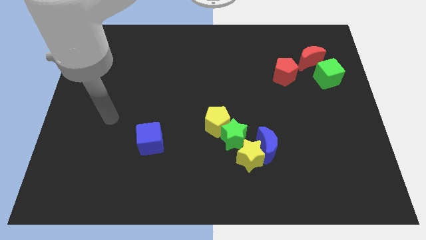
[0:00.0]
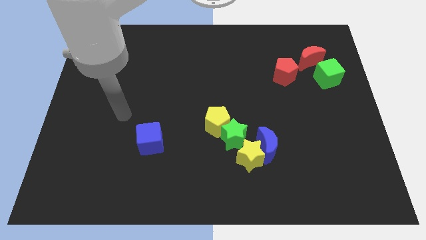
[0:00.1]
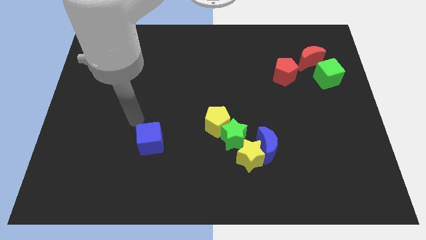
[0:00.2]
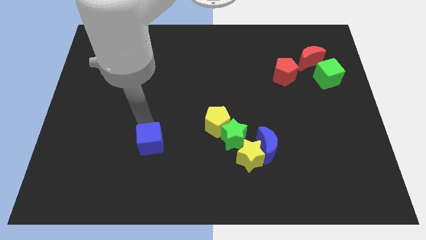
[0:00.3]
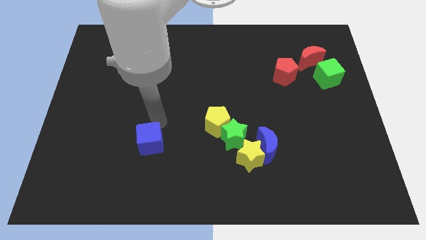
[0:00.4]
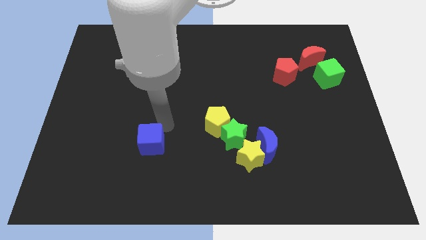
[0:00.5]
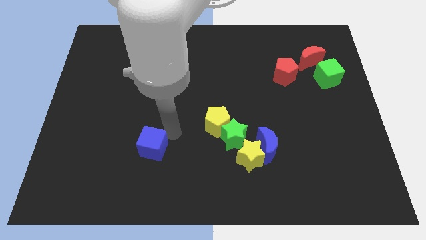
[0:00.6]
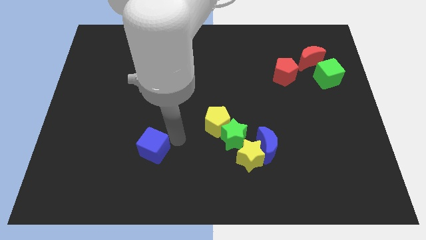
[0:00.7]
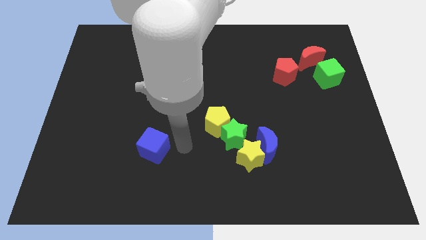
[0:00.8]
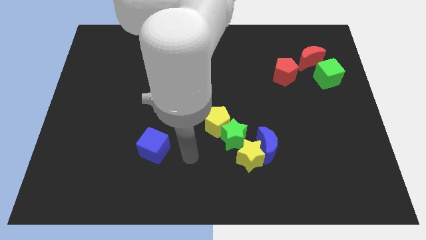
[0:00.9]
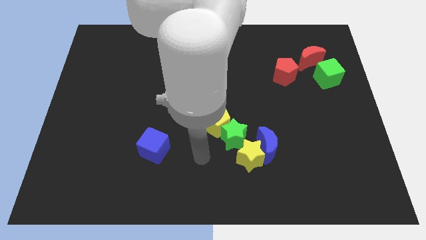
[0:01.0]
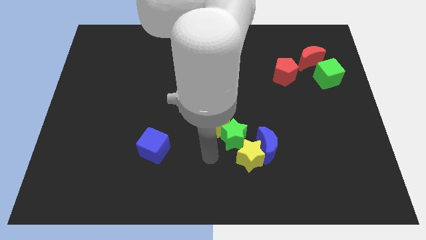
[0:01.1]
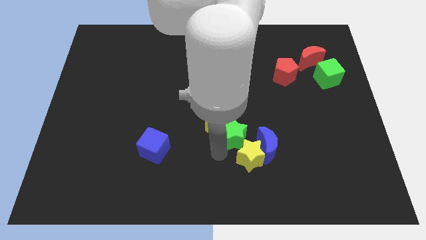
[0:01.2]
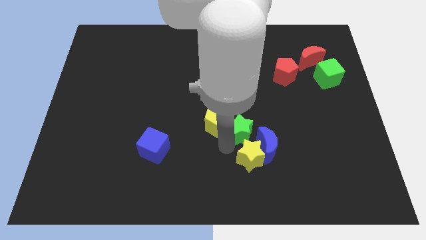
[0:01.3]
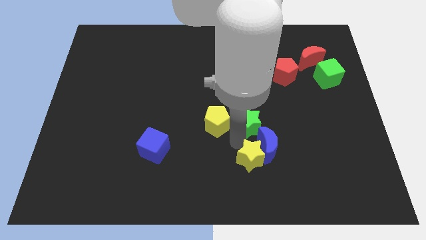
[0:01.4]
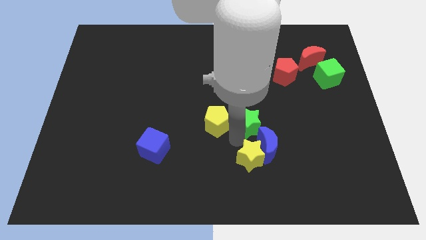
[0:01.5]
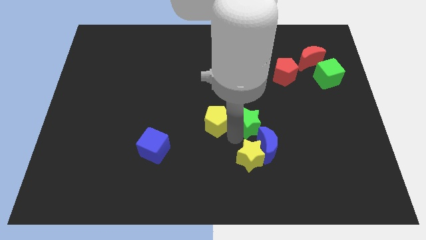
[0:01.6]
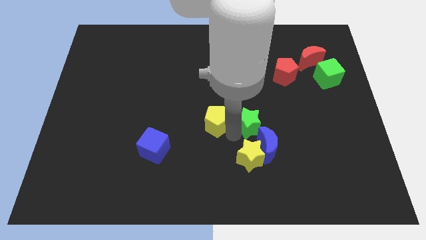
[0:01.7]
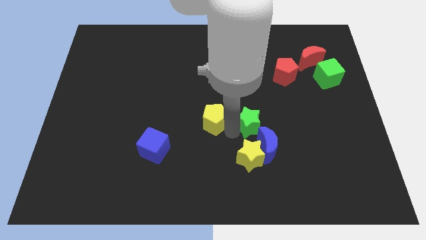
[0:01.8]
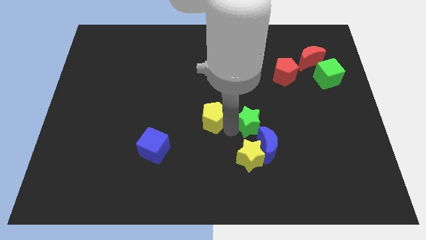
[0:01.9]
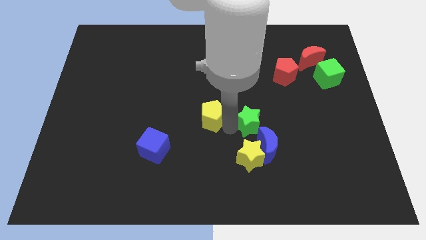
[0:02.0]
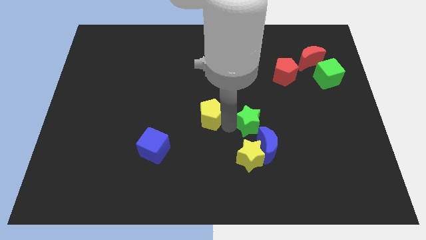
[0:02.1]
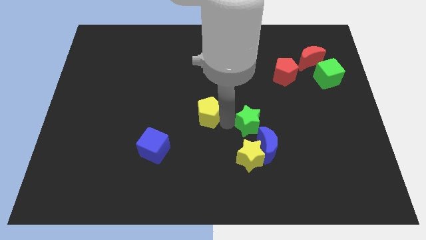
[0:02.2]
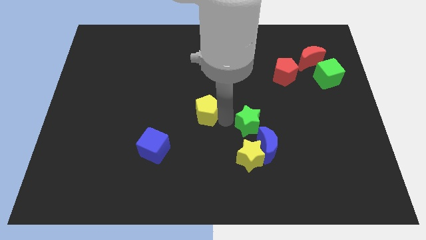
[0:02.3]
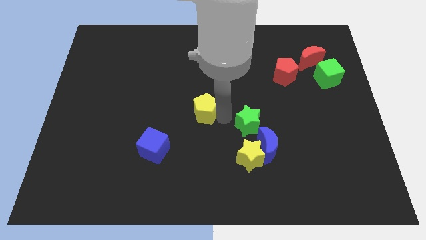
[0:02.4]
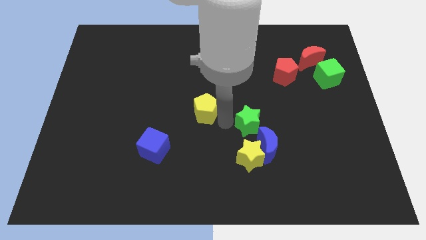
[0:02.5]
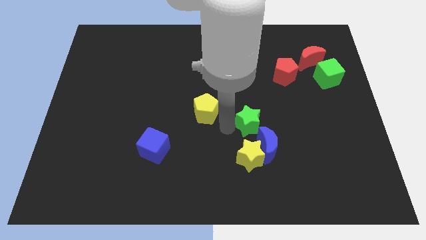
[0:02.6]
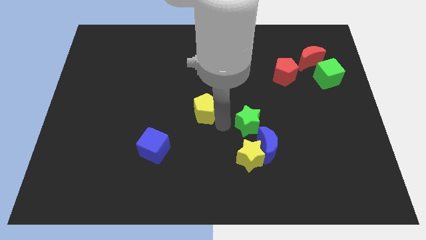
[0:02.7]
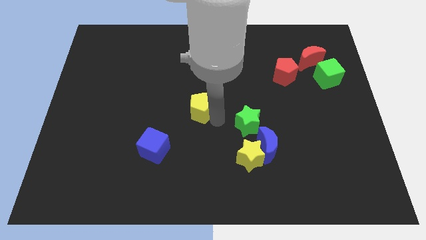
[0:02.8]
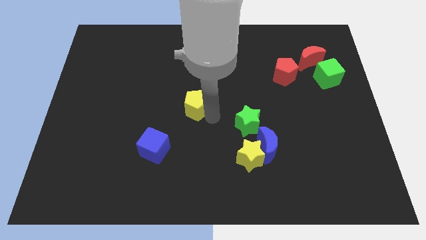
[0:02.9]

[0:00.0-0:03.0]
move the yellow pentagon a bit upwards and then to the left

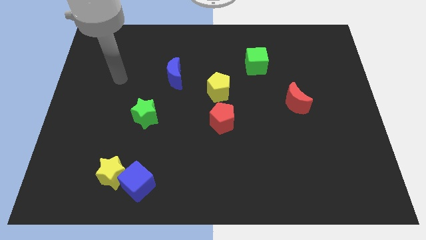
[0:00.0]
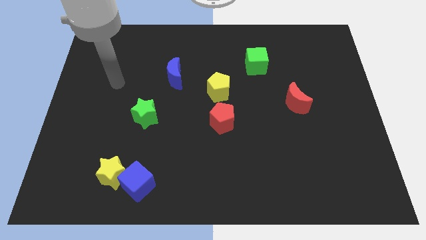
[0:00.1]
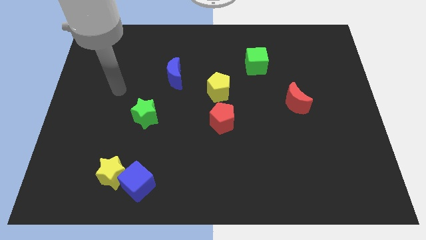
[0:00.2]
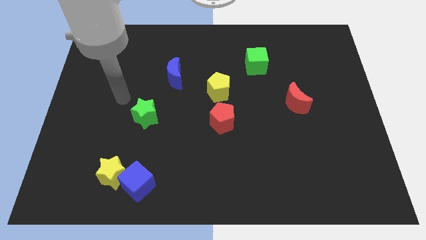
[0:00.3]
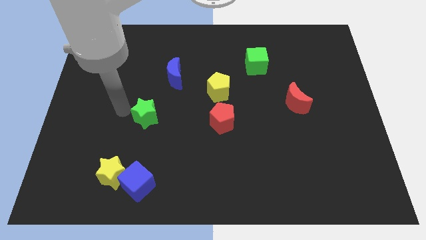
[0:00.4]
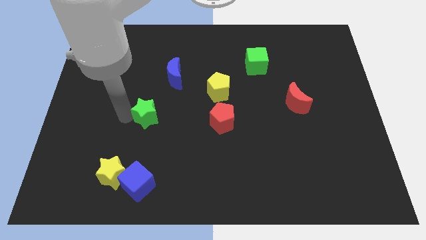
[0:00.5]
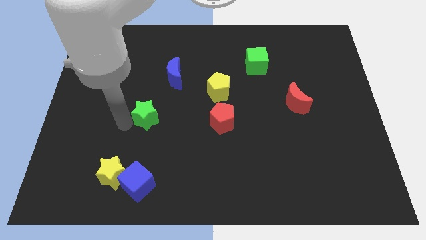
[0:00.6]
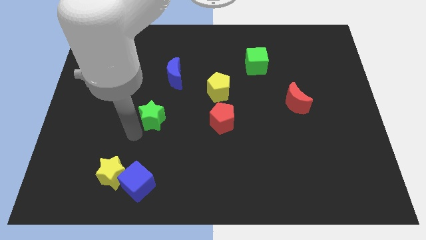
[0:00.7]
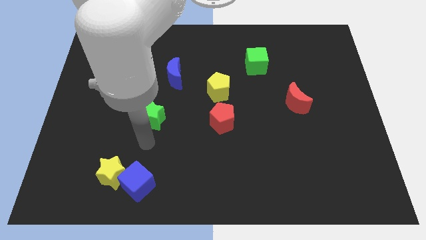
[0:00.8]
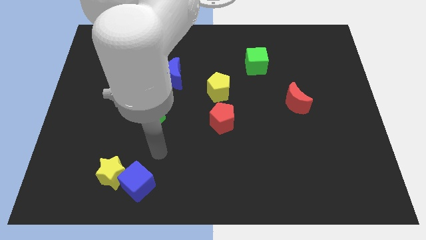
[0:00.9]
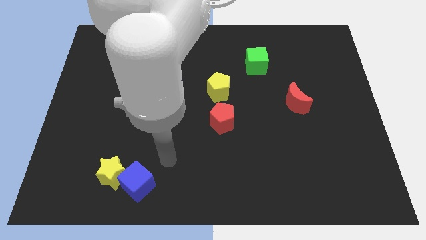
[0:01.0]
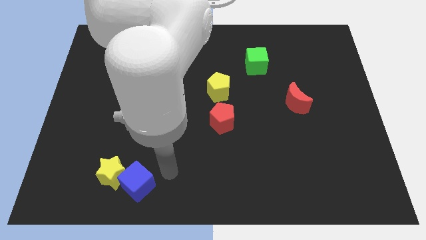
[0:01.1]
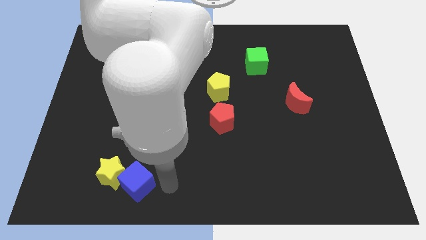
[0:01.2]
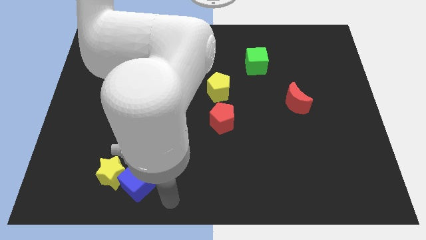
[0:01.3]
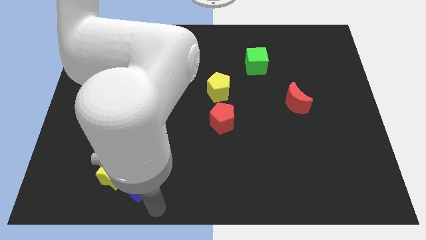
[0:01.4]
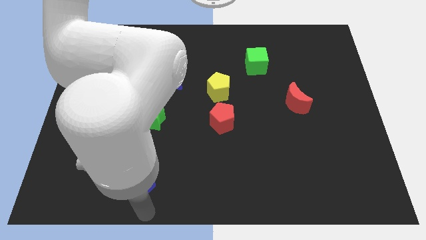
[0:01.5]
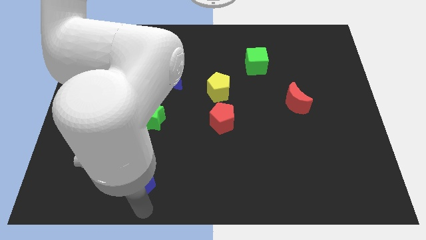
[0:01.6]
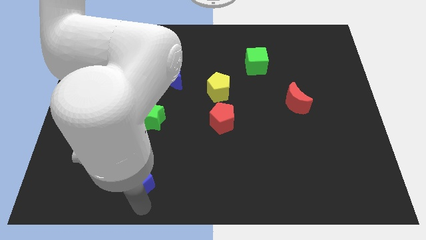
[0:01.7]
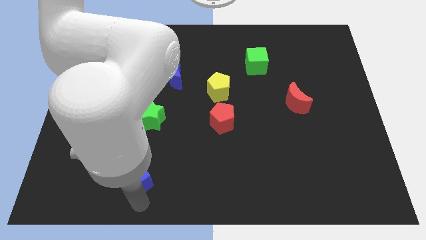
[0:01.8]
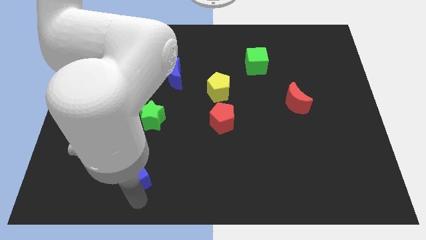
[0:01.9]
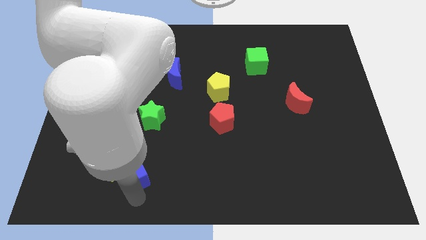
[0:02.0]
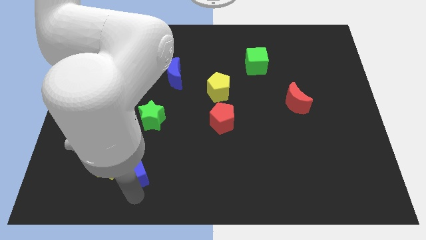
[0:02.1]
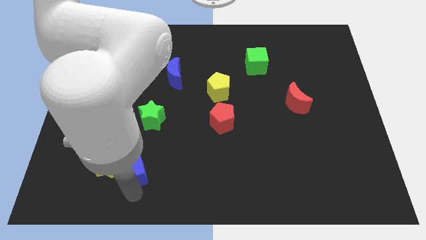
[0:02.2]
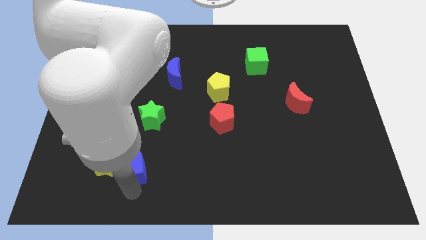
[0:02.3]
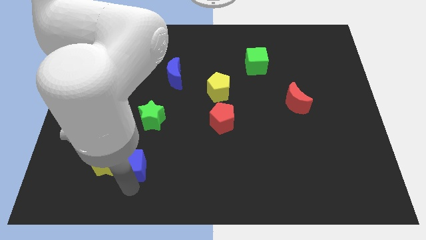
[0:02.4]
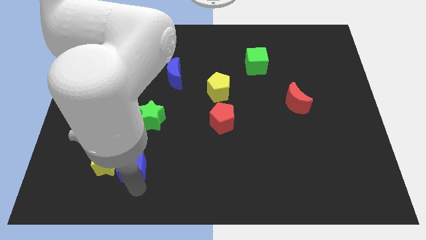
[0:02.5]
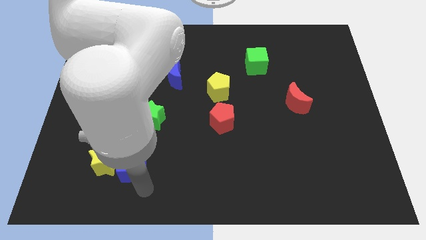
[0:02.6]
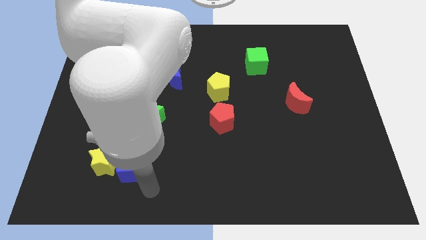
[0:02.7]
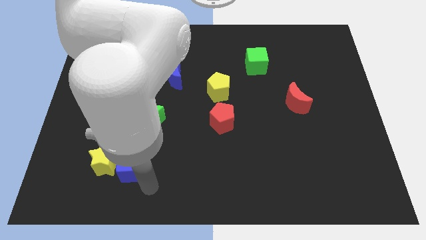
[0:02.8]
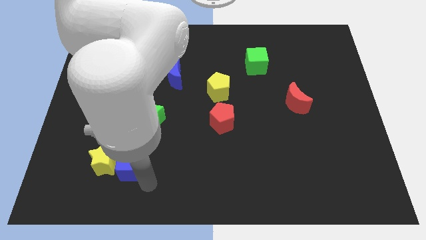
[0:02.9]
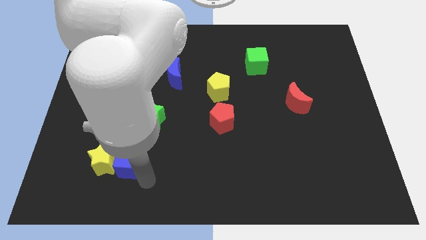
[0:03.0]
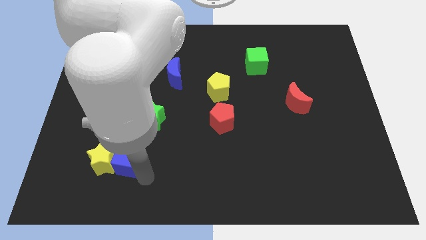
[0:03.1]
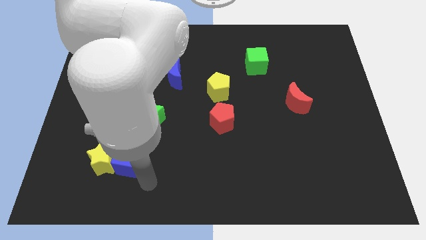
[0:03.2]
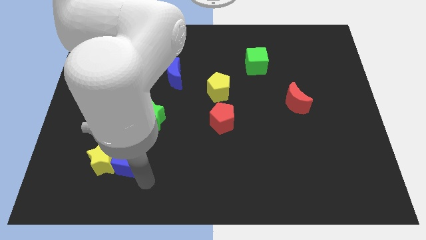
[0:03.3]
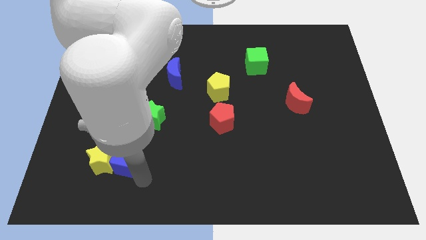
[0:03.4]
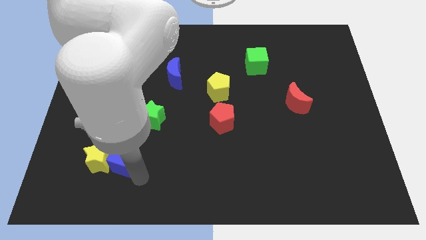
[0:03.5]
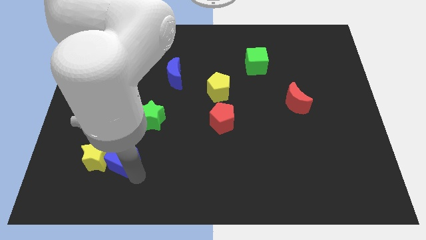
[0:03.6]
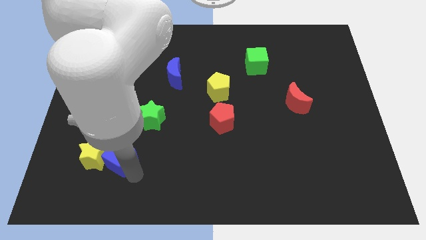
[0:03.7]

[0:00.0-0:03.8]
slide the blue cube slightly upwards and to the left diagonally

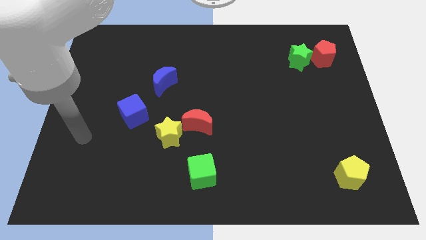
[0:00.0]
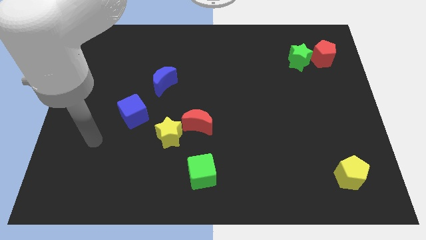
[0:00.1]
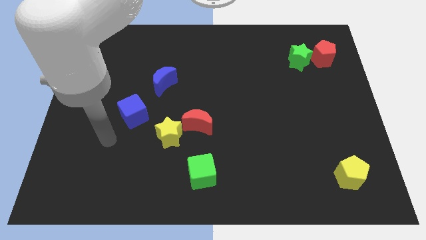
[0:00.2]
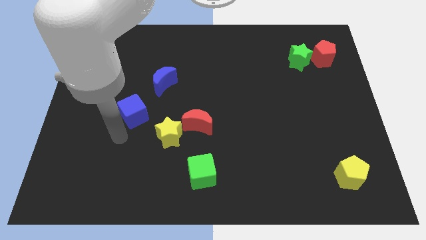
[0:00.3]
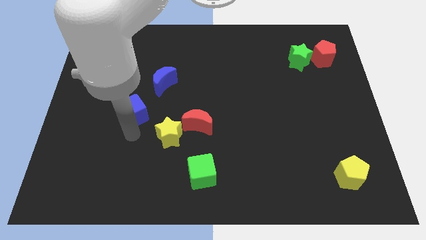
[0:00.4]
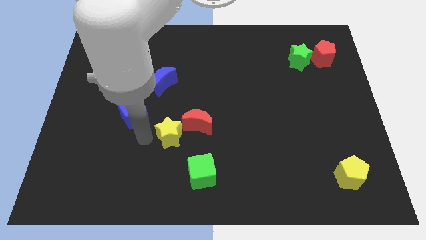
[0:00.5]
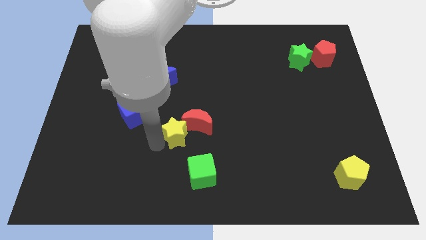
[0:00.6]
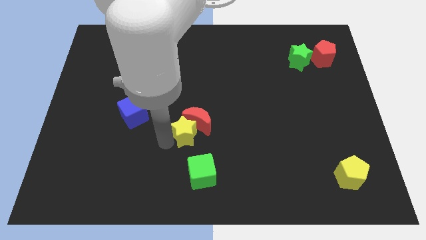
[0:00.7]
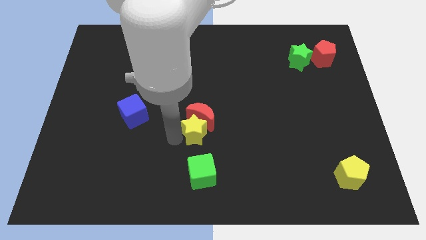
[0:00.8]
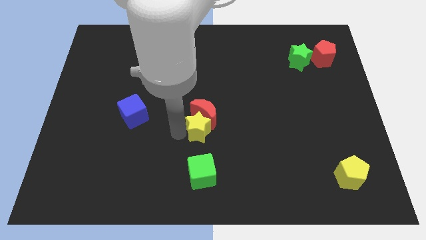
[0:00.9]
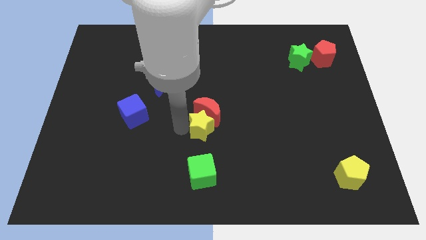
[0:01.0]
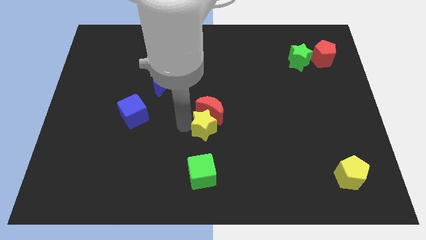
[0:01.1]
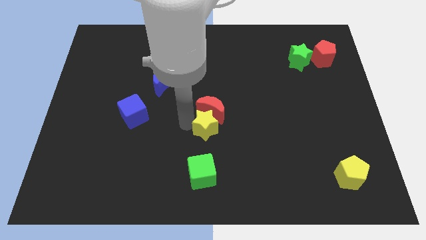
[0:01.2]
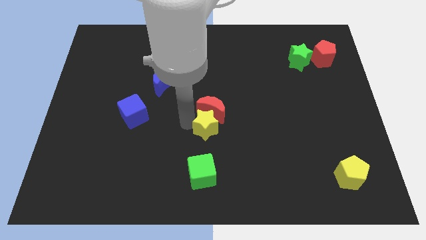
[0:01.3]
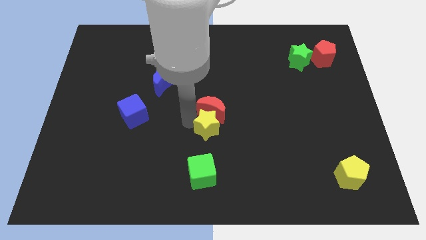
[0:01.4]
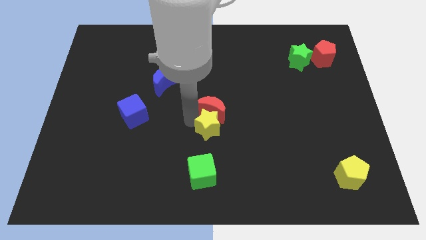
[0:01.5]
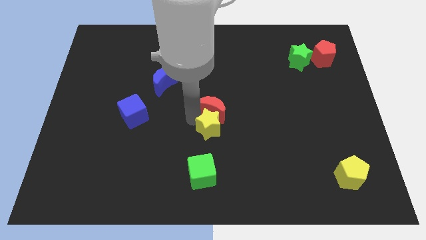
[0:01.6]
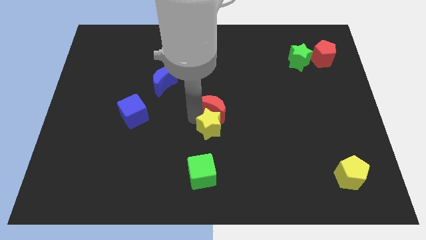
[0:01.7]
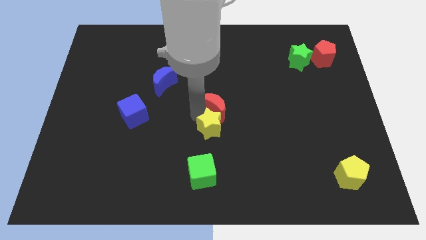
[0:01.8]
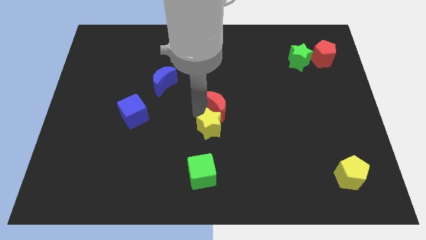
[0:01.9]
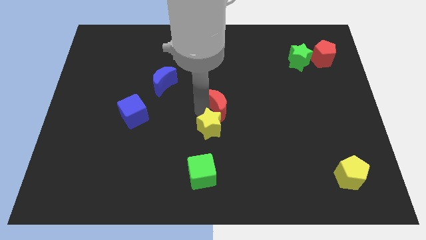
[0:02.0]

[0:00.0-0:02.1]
push the red moon a bit upwards and right diagonally
